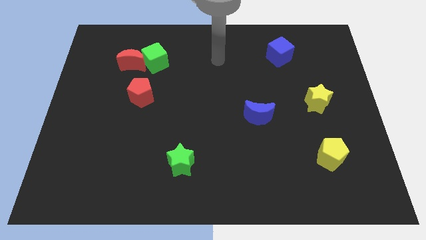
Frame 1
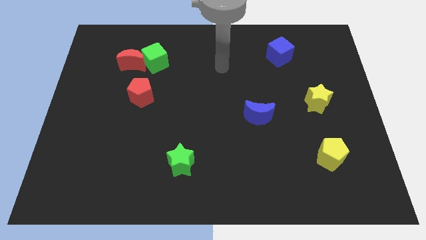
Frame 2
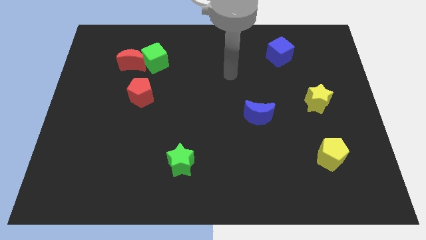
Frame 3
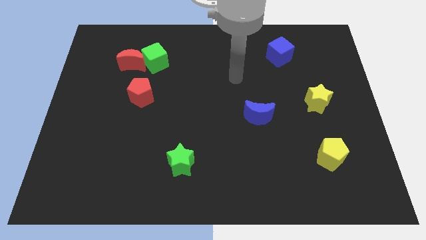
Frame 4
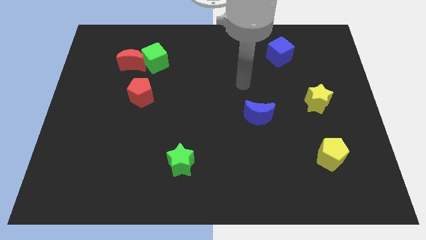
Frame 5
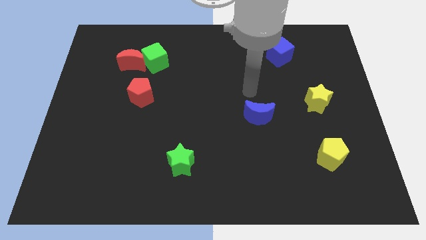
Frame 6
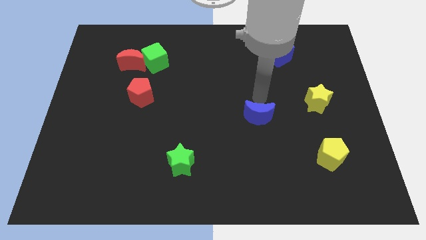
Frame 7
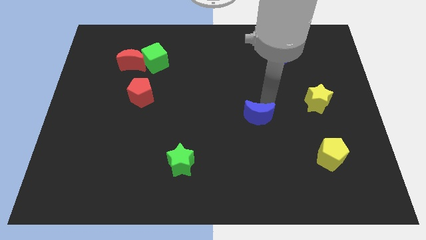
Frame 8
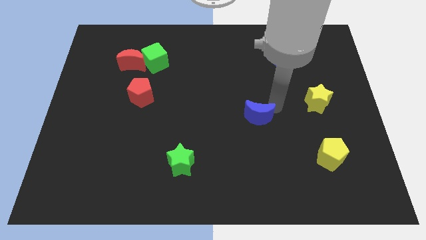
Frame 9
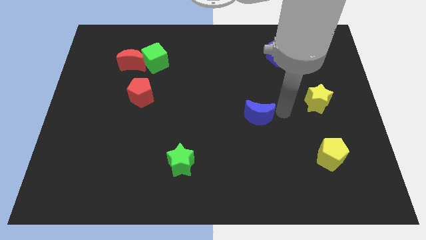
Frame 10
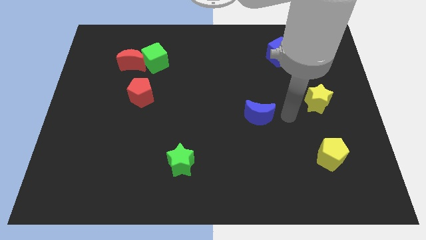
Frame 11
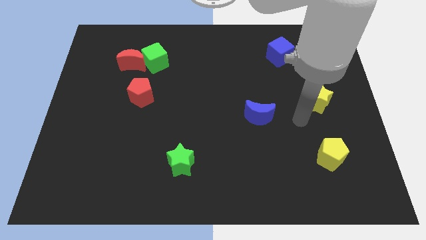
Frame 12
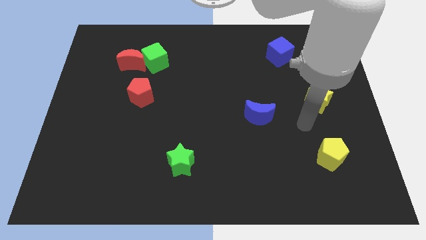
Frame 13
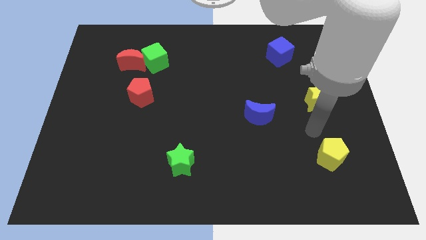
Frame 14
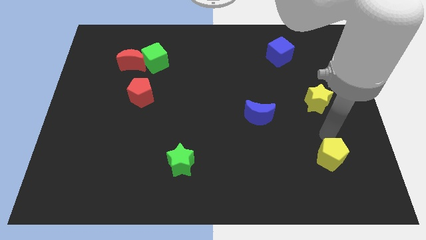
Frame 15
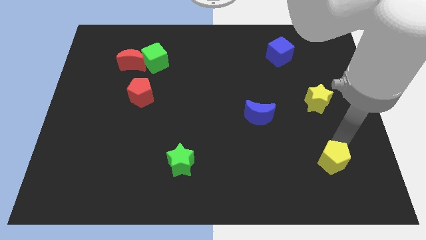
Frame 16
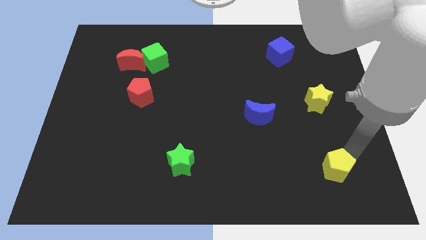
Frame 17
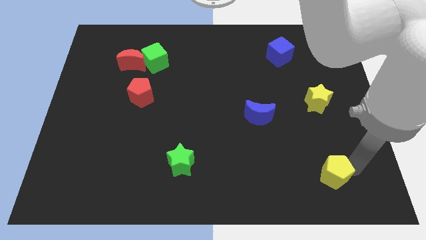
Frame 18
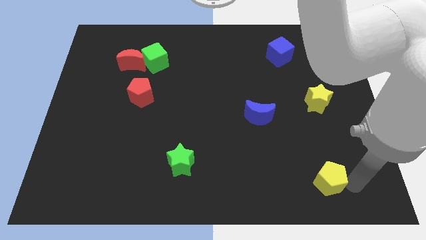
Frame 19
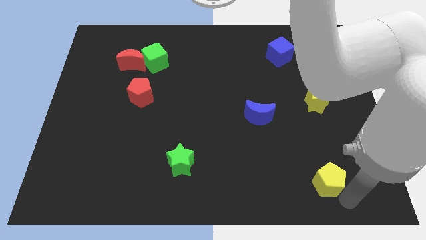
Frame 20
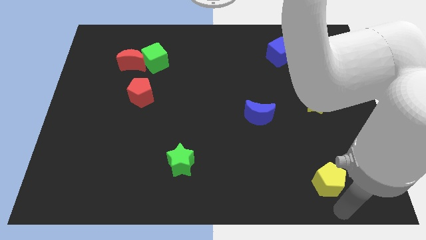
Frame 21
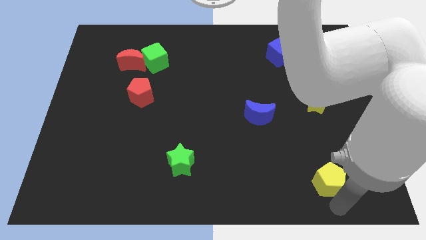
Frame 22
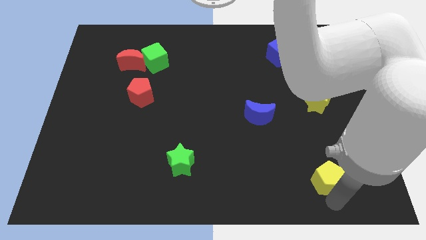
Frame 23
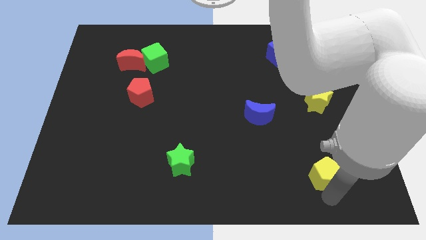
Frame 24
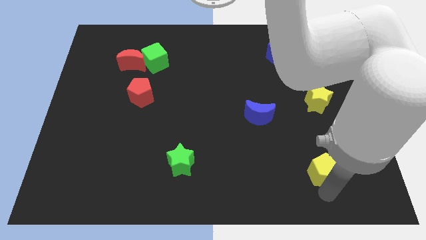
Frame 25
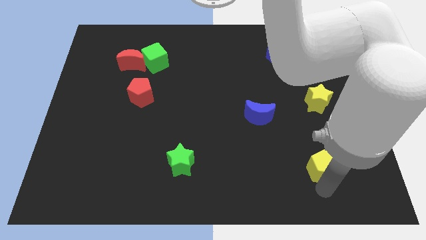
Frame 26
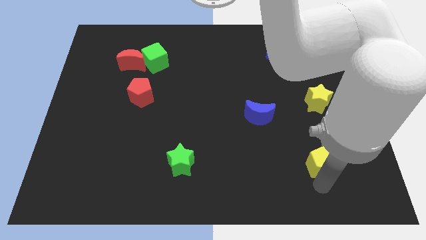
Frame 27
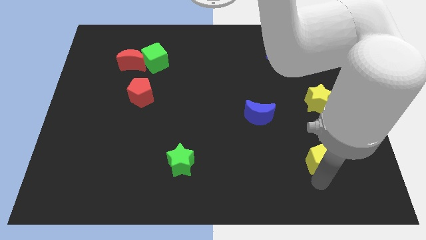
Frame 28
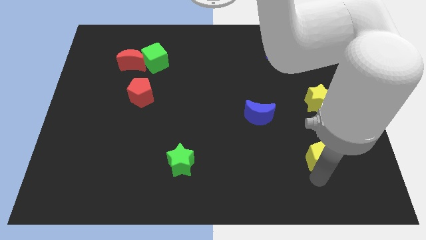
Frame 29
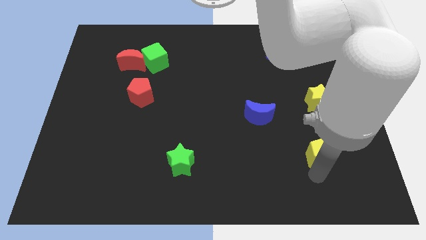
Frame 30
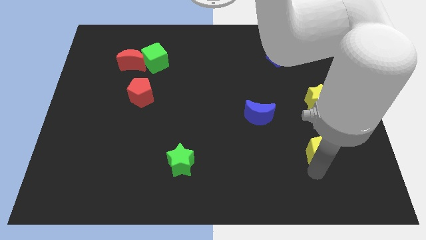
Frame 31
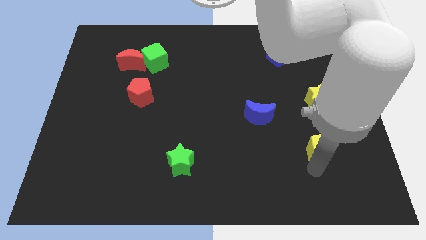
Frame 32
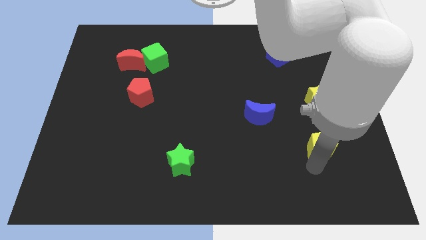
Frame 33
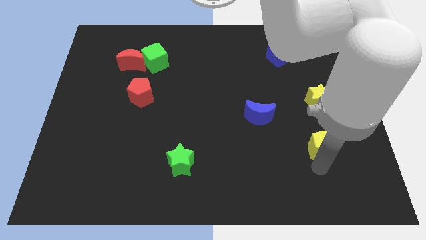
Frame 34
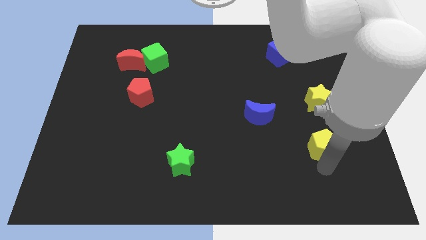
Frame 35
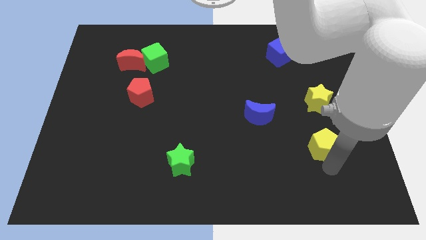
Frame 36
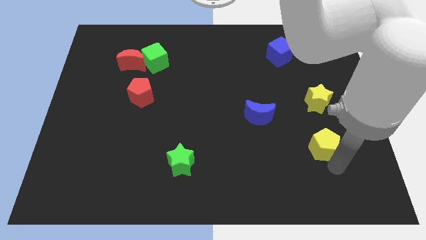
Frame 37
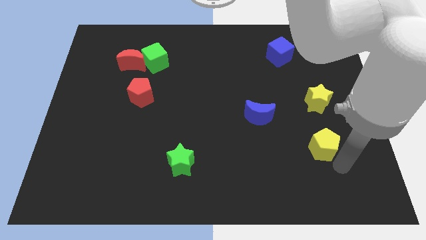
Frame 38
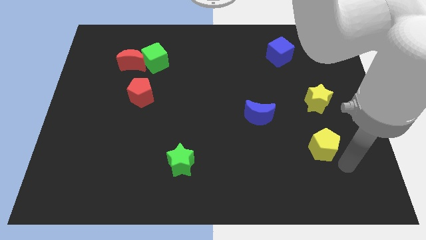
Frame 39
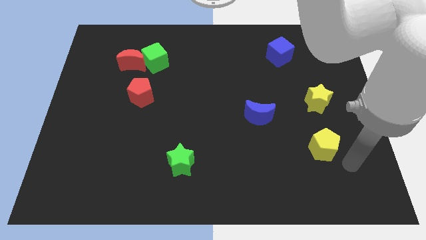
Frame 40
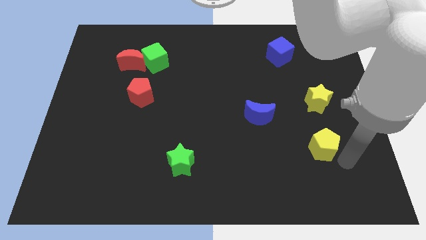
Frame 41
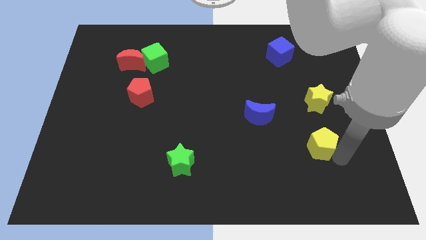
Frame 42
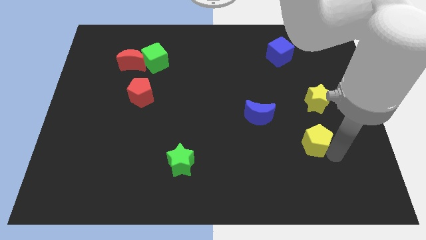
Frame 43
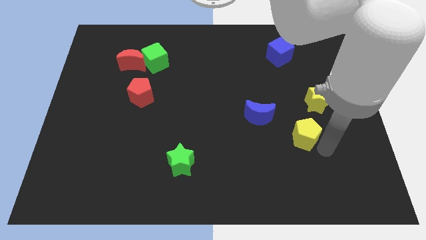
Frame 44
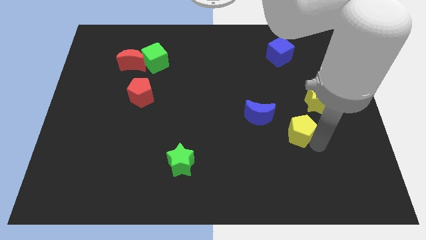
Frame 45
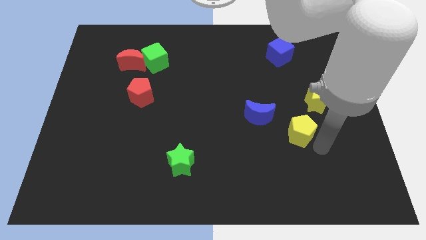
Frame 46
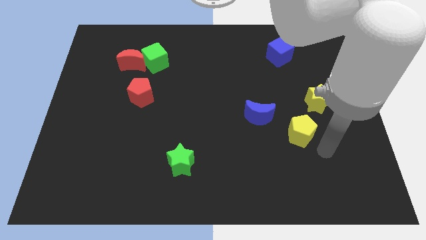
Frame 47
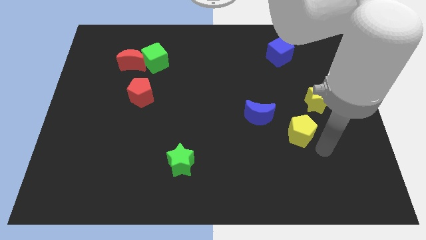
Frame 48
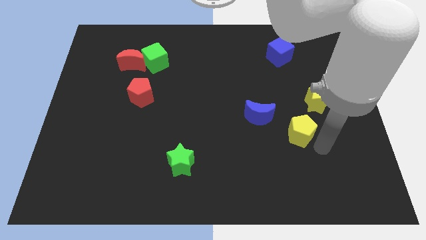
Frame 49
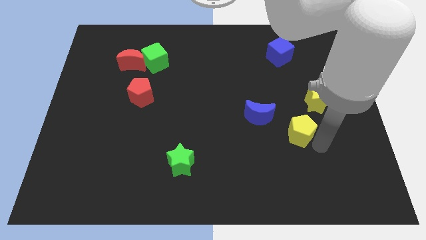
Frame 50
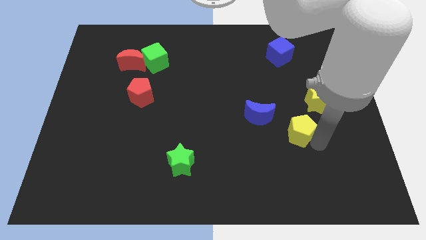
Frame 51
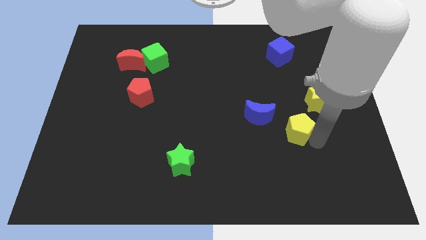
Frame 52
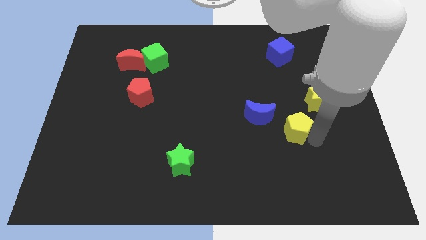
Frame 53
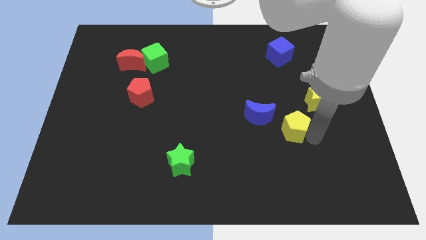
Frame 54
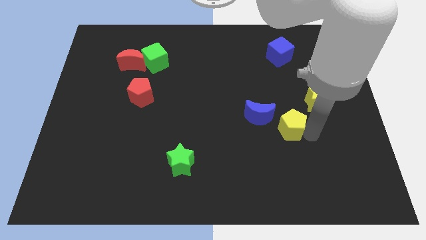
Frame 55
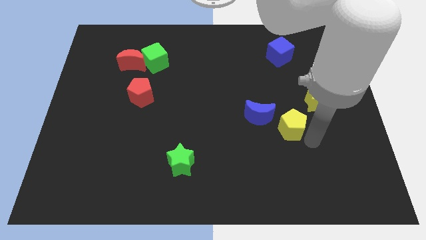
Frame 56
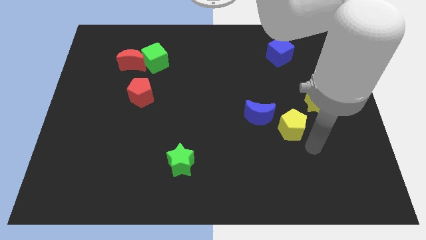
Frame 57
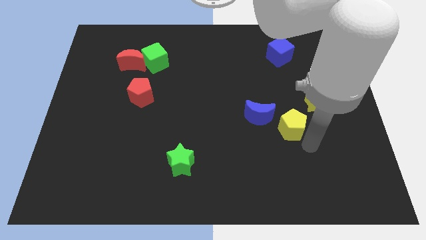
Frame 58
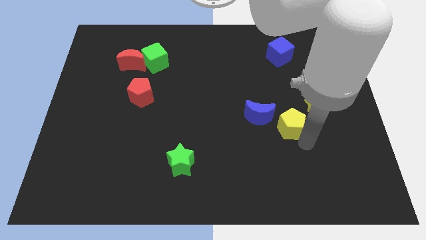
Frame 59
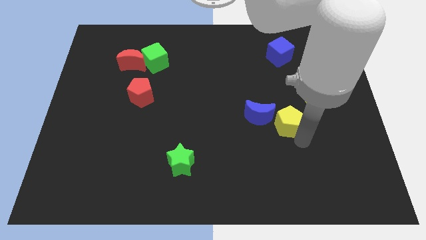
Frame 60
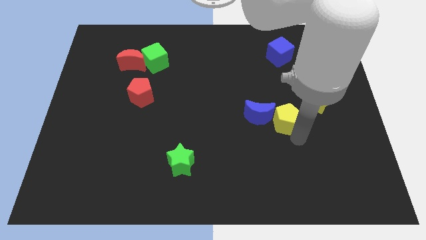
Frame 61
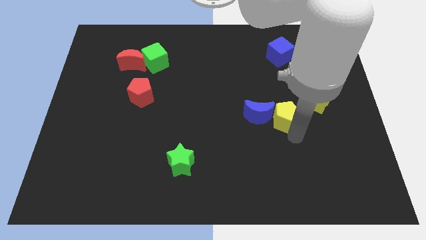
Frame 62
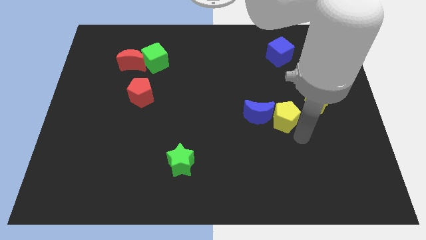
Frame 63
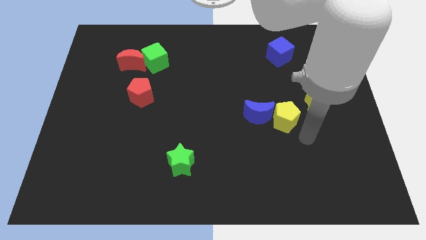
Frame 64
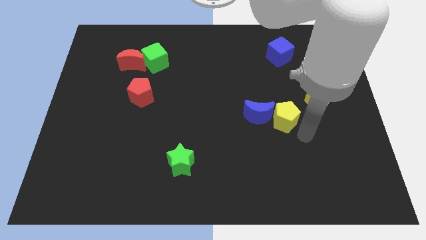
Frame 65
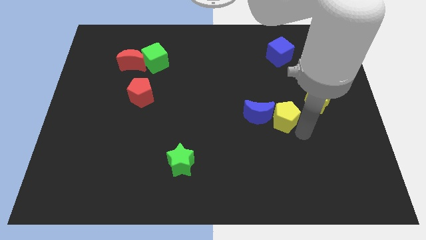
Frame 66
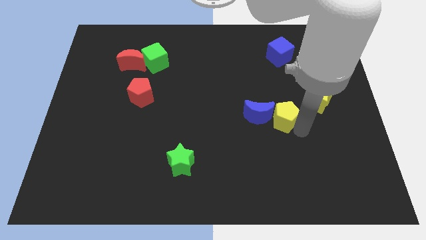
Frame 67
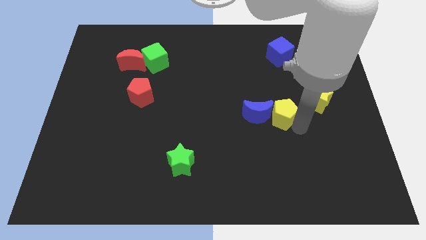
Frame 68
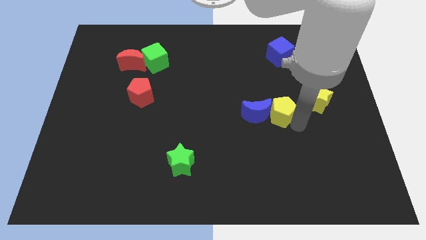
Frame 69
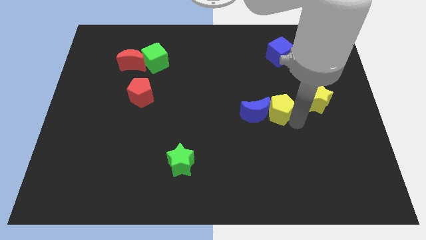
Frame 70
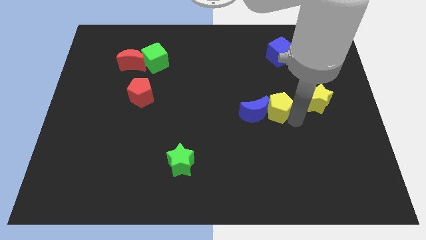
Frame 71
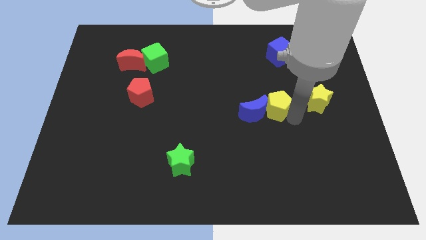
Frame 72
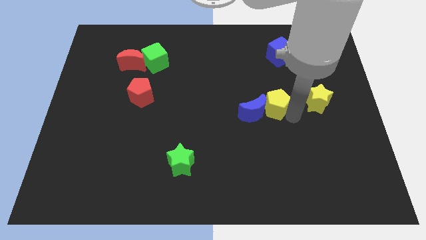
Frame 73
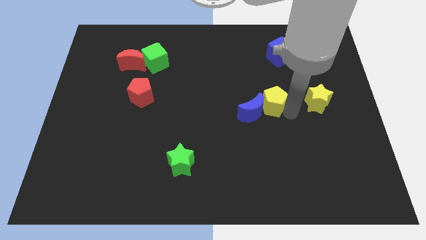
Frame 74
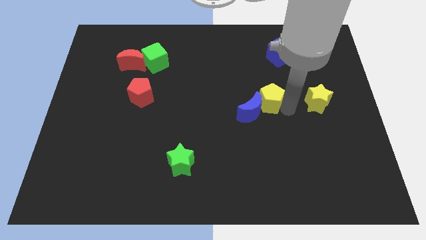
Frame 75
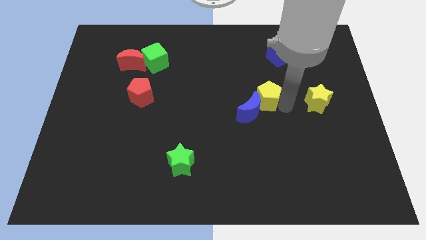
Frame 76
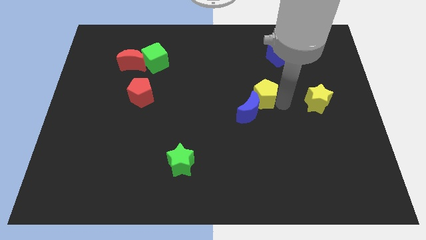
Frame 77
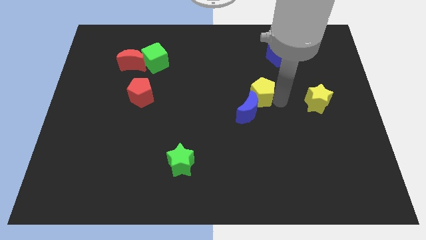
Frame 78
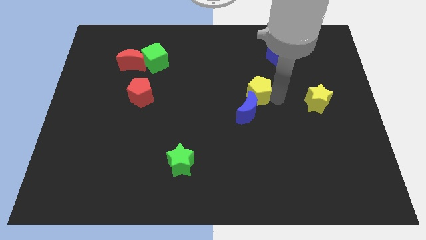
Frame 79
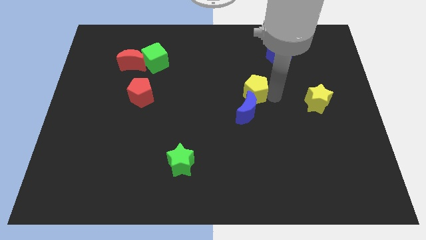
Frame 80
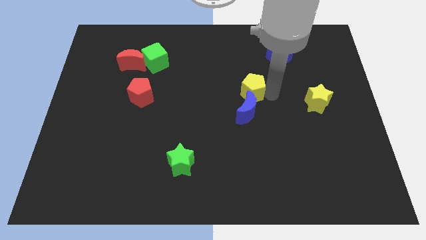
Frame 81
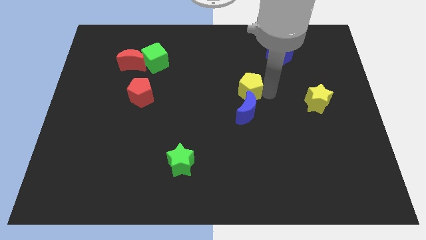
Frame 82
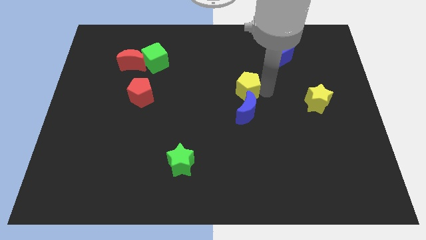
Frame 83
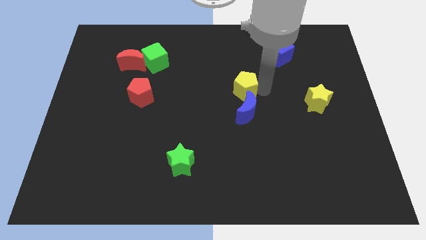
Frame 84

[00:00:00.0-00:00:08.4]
push the yellow pentagon to the top left side of the blue moon
